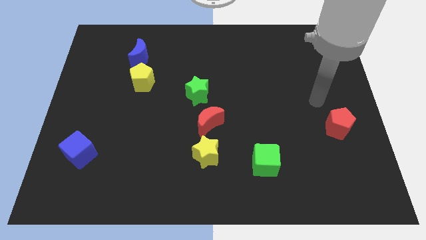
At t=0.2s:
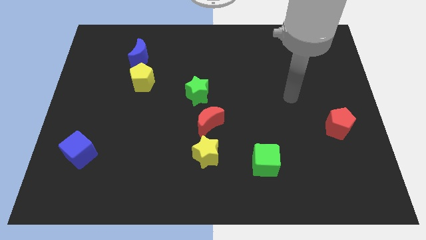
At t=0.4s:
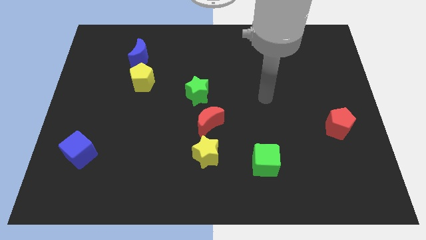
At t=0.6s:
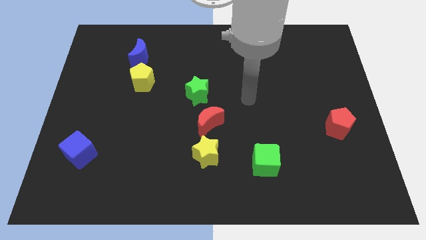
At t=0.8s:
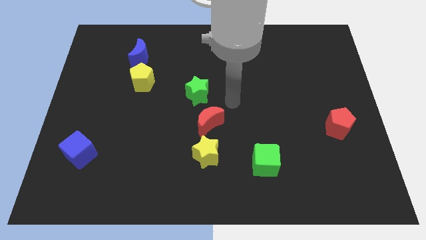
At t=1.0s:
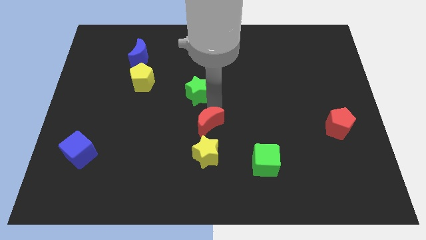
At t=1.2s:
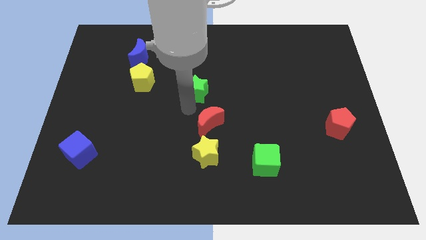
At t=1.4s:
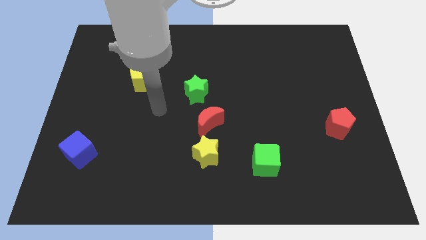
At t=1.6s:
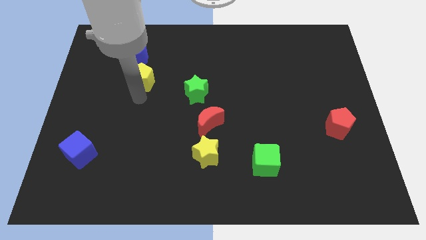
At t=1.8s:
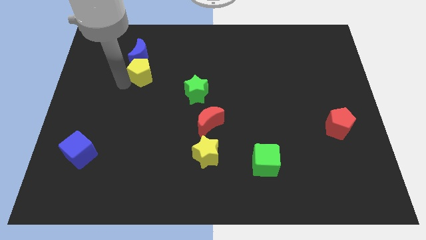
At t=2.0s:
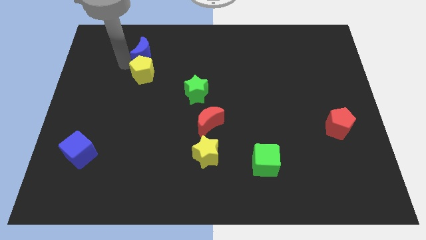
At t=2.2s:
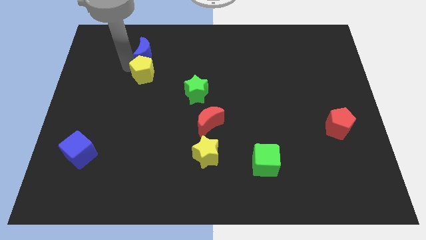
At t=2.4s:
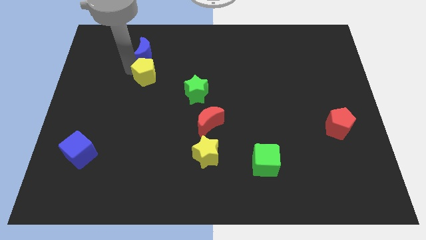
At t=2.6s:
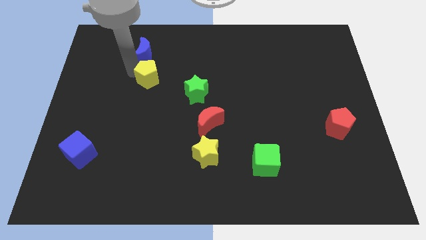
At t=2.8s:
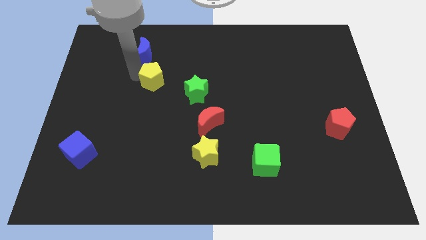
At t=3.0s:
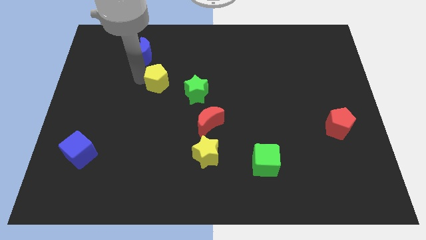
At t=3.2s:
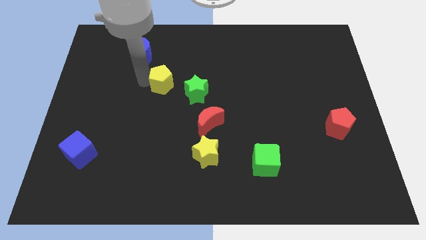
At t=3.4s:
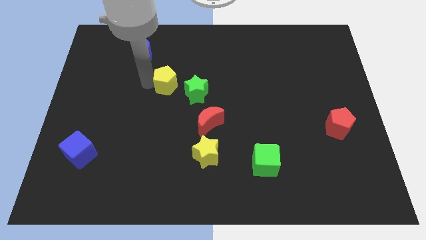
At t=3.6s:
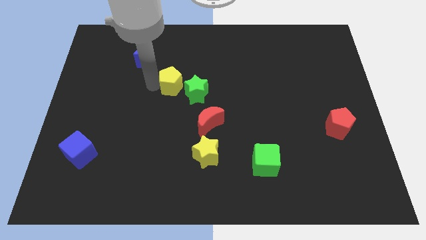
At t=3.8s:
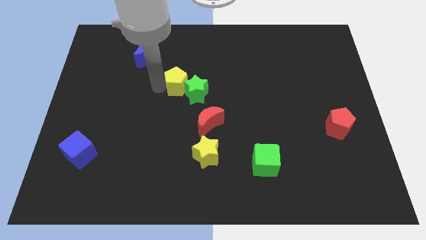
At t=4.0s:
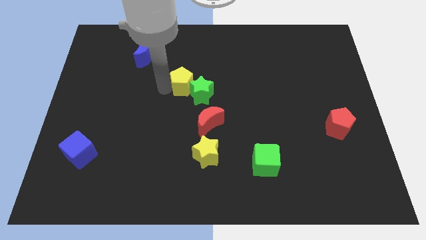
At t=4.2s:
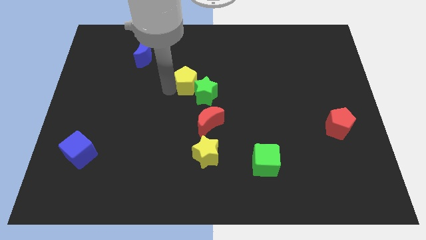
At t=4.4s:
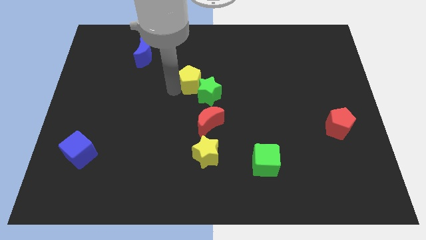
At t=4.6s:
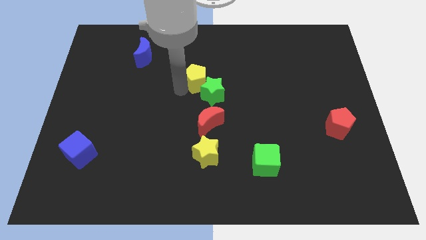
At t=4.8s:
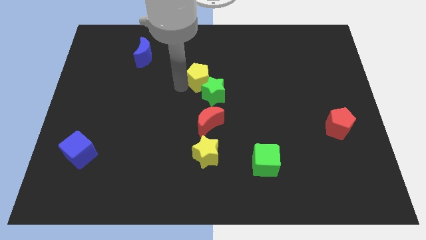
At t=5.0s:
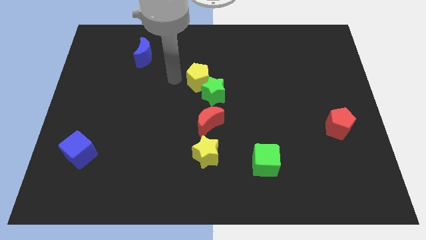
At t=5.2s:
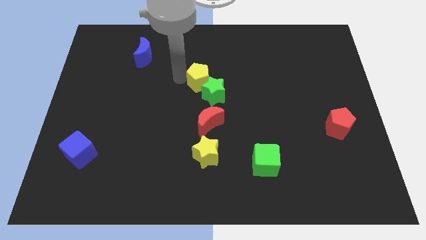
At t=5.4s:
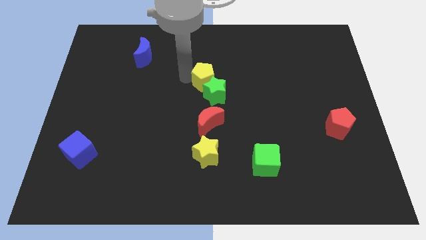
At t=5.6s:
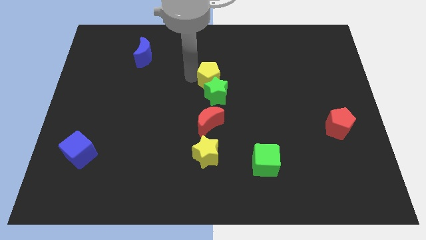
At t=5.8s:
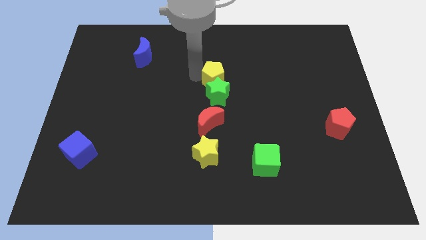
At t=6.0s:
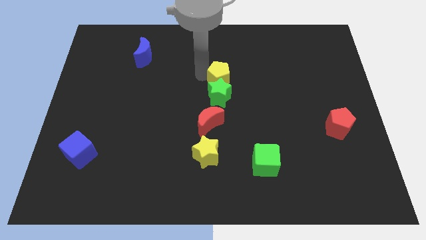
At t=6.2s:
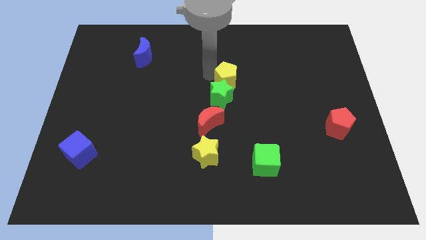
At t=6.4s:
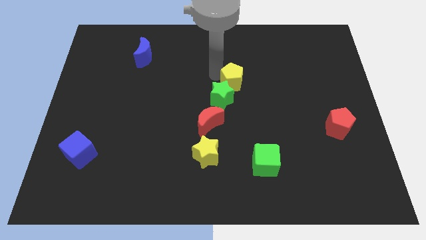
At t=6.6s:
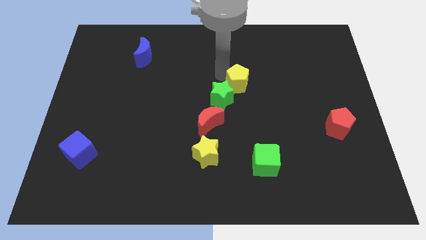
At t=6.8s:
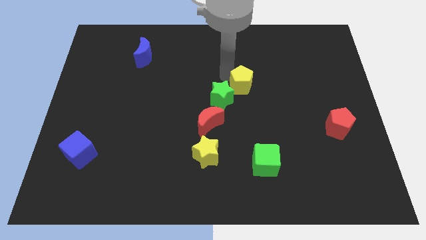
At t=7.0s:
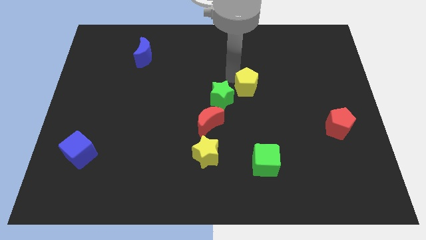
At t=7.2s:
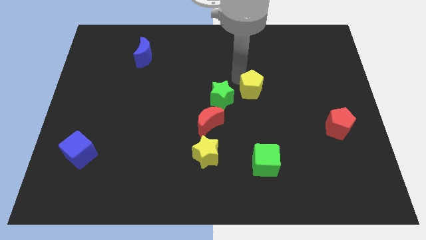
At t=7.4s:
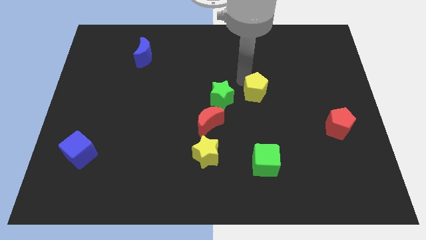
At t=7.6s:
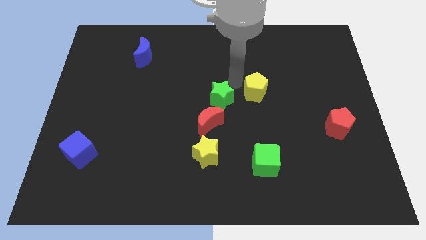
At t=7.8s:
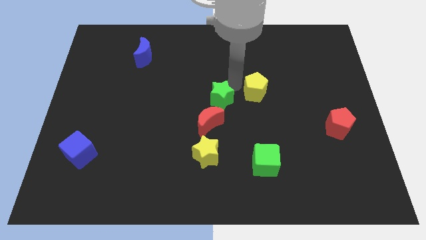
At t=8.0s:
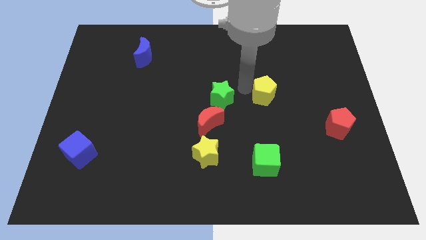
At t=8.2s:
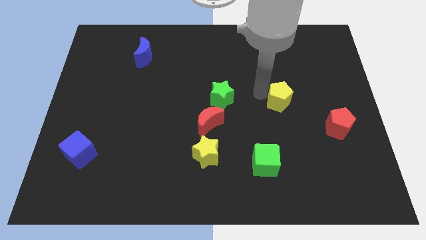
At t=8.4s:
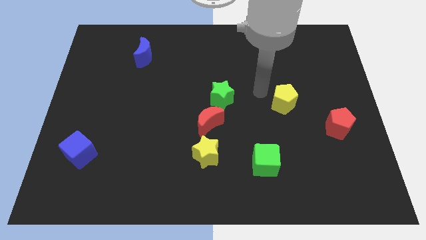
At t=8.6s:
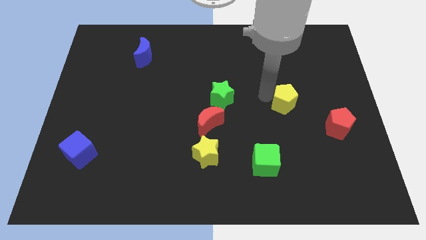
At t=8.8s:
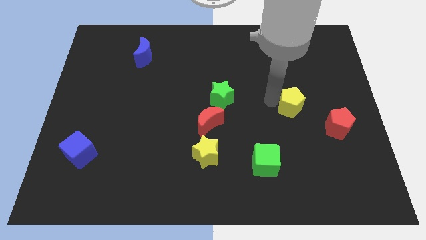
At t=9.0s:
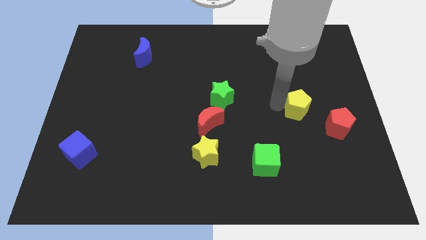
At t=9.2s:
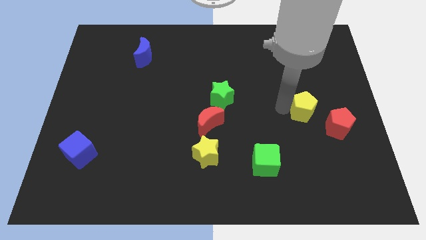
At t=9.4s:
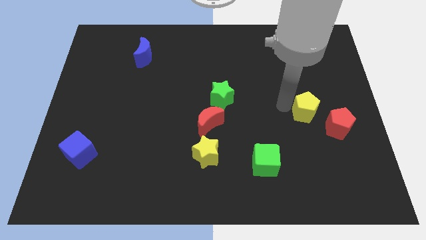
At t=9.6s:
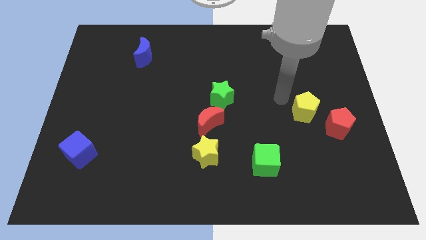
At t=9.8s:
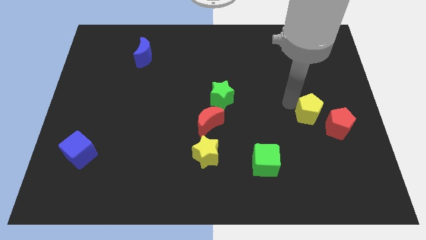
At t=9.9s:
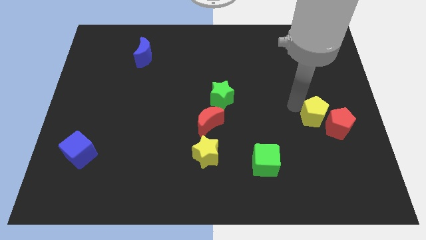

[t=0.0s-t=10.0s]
put the yellow pentagon close to the red pentagon

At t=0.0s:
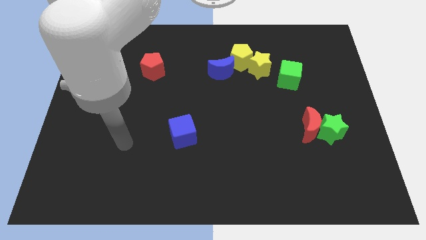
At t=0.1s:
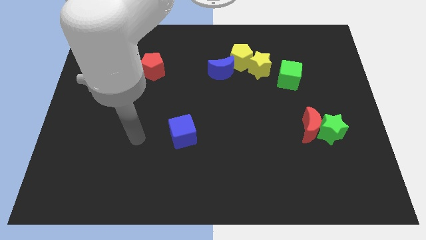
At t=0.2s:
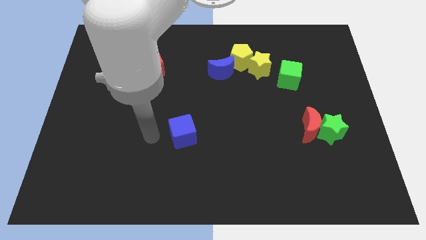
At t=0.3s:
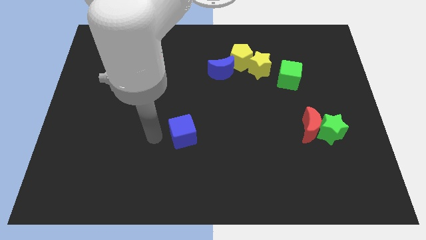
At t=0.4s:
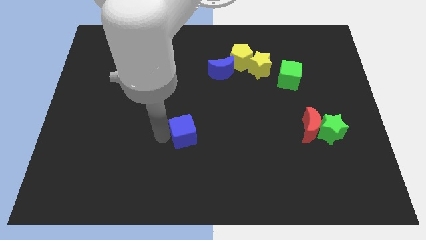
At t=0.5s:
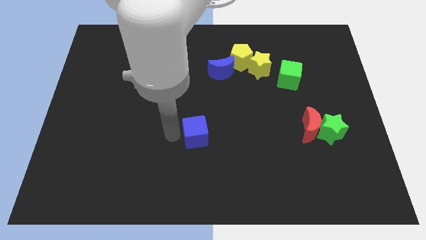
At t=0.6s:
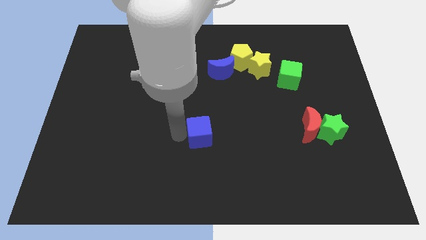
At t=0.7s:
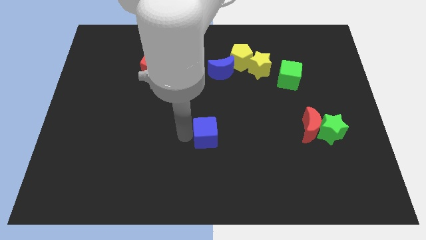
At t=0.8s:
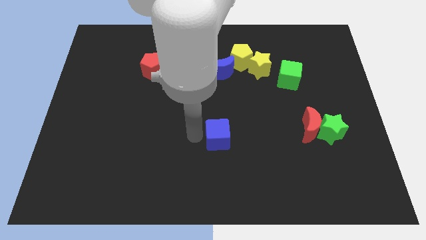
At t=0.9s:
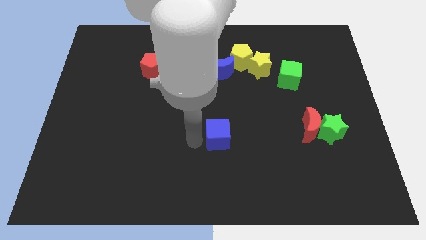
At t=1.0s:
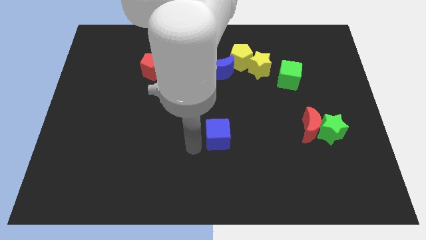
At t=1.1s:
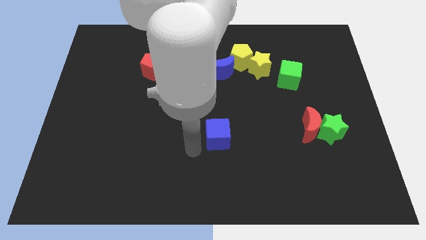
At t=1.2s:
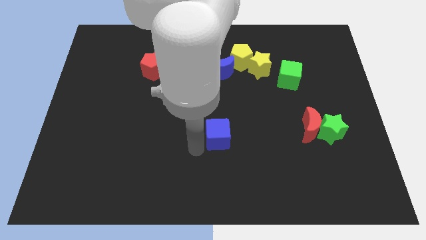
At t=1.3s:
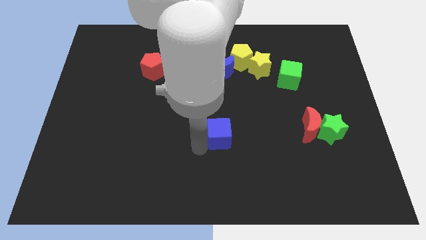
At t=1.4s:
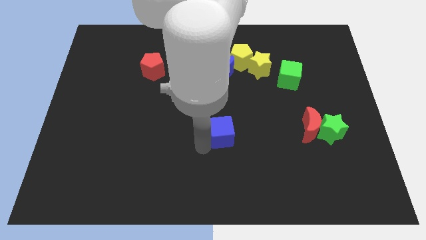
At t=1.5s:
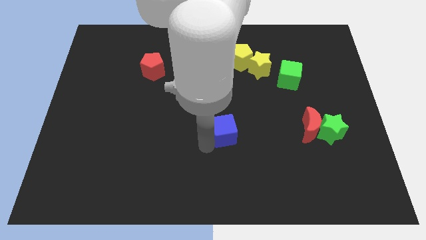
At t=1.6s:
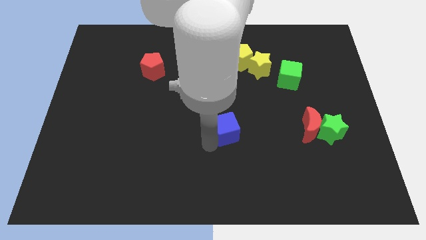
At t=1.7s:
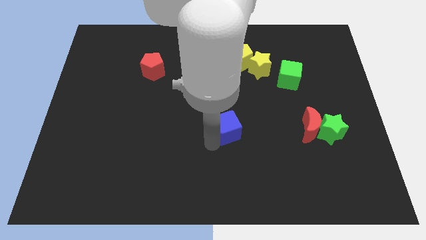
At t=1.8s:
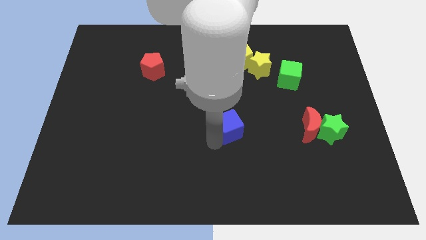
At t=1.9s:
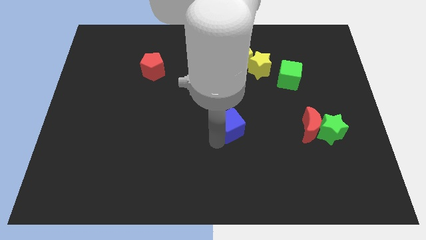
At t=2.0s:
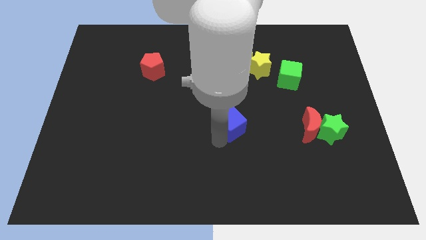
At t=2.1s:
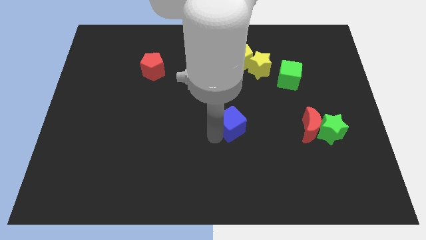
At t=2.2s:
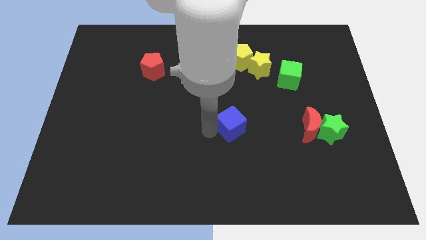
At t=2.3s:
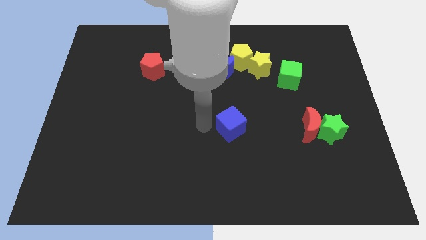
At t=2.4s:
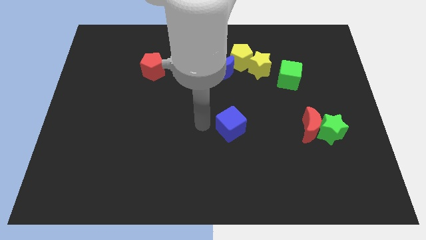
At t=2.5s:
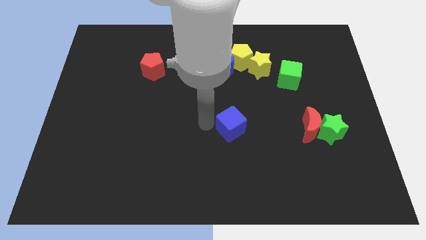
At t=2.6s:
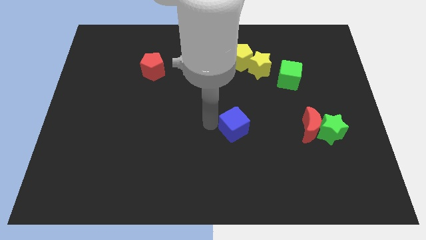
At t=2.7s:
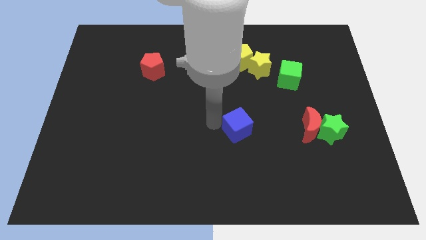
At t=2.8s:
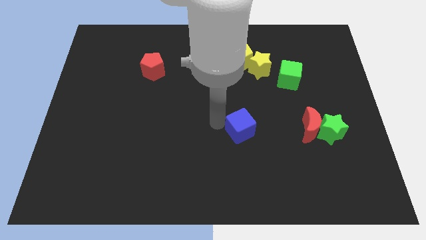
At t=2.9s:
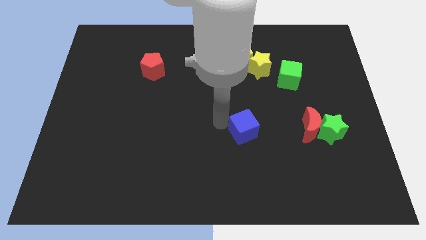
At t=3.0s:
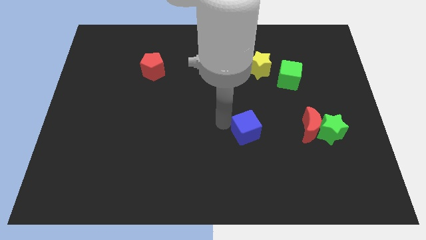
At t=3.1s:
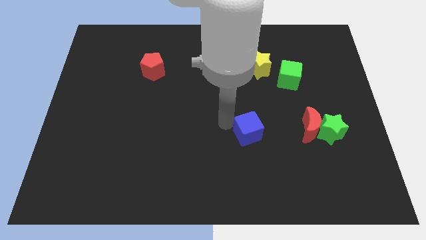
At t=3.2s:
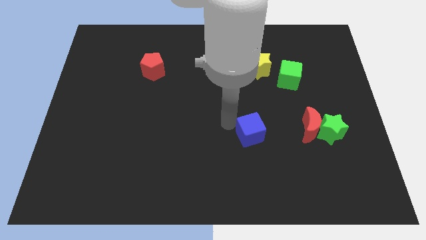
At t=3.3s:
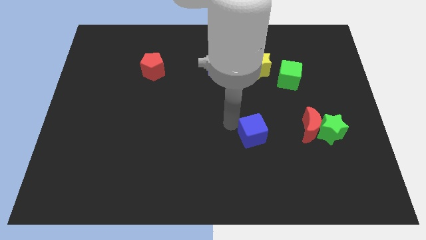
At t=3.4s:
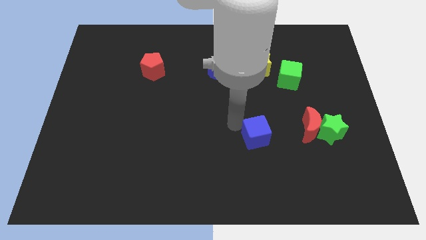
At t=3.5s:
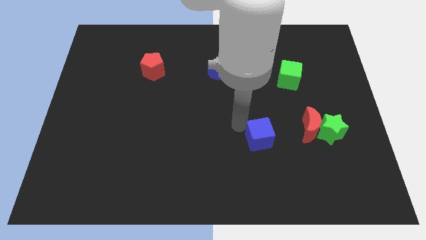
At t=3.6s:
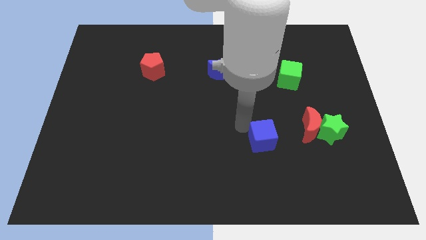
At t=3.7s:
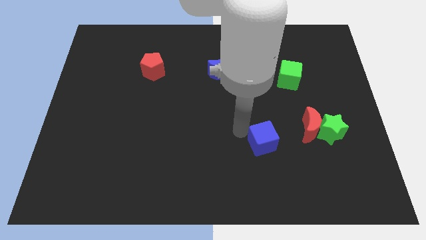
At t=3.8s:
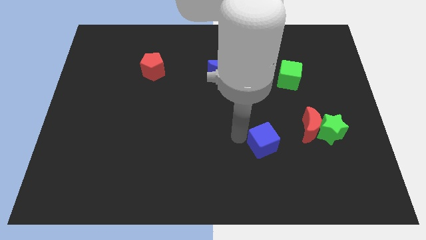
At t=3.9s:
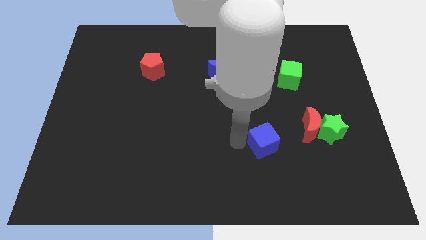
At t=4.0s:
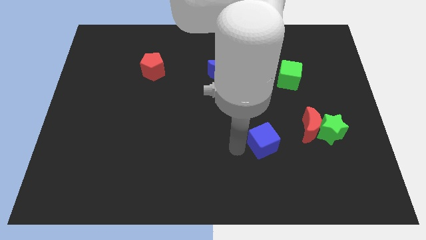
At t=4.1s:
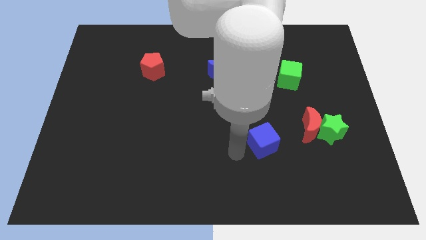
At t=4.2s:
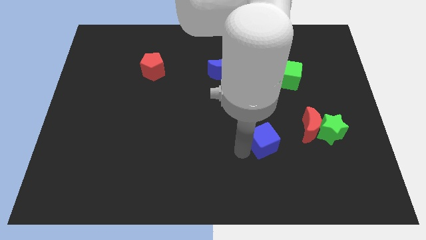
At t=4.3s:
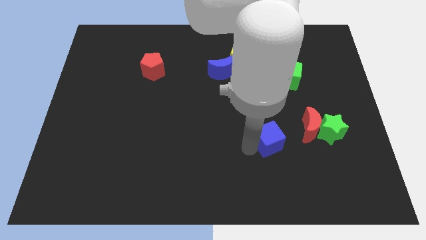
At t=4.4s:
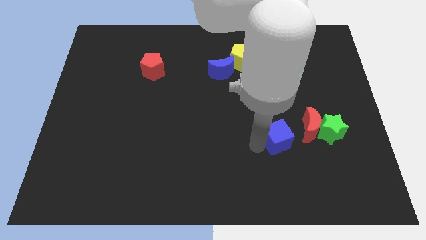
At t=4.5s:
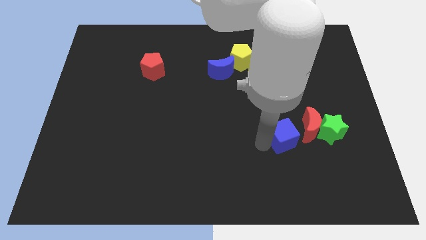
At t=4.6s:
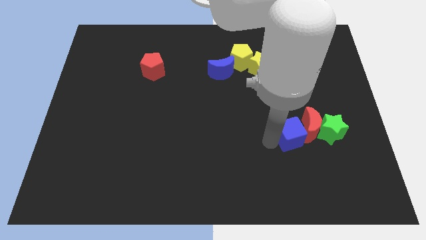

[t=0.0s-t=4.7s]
move the blue cube to the red moon
